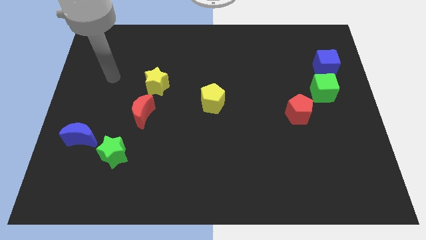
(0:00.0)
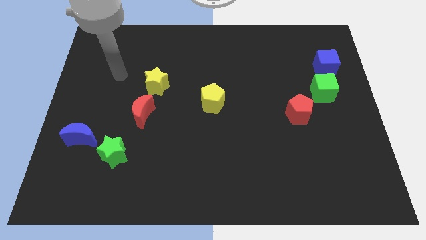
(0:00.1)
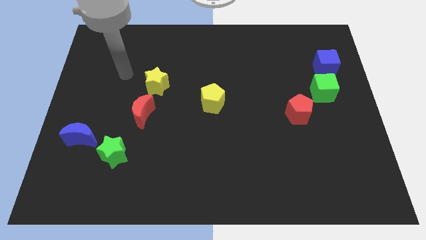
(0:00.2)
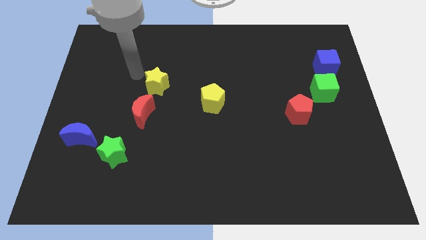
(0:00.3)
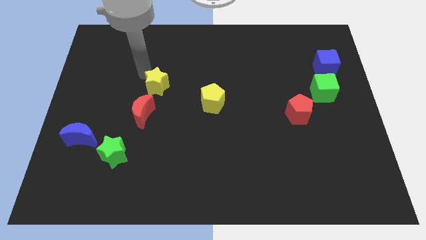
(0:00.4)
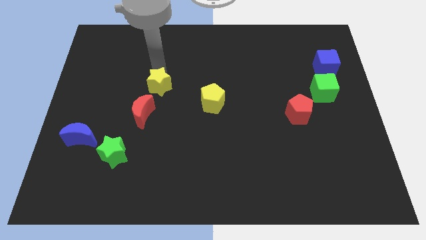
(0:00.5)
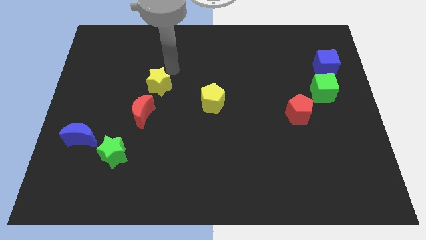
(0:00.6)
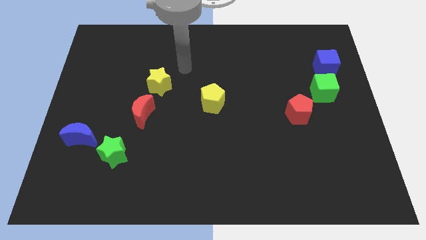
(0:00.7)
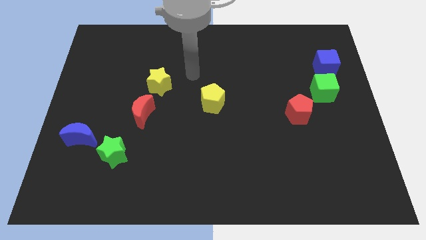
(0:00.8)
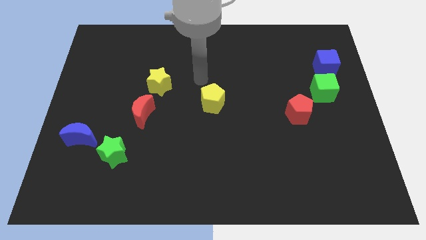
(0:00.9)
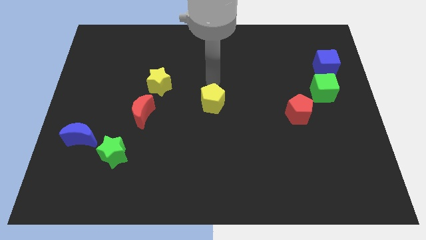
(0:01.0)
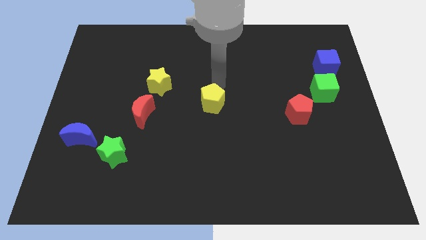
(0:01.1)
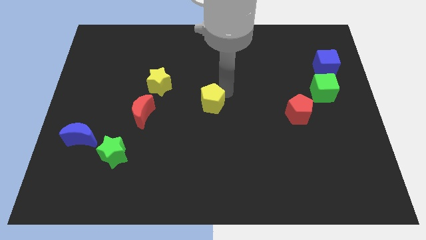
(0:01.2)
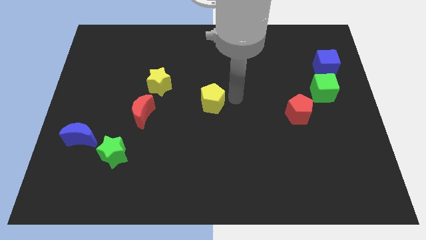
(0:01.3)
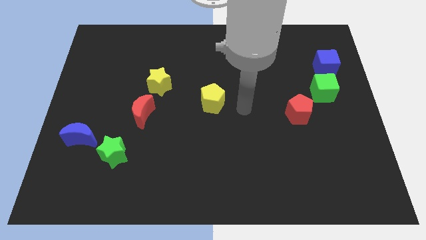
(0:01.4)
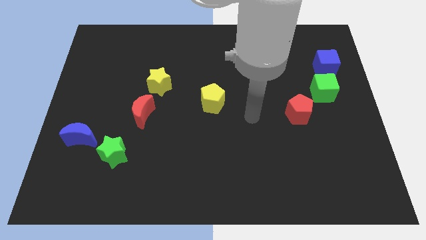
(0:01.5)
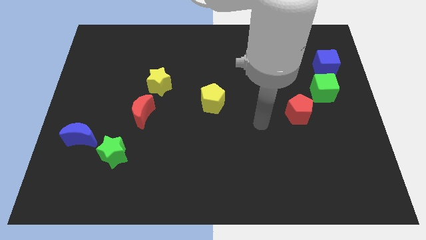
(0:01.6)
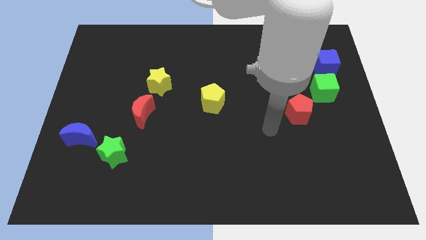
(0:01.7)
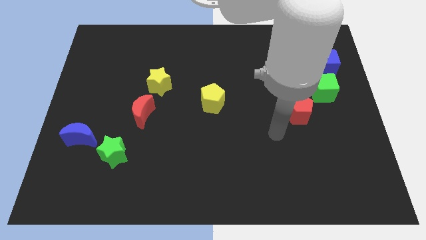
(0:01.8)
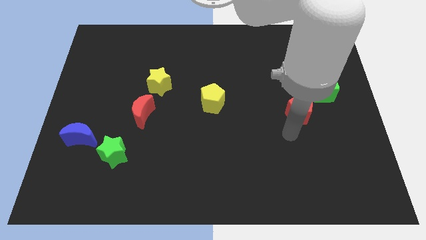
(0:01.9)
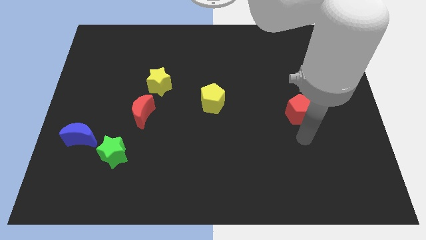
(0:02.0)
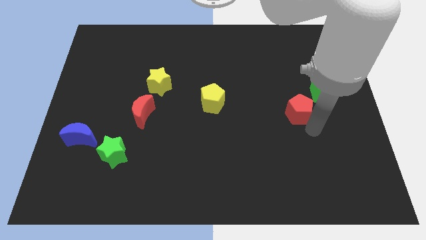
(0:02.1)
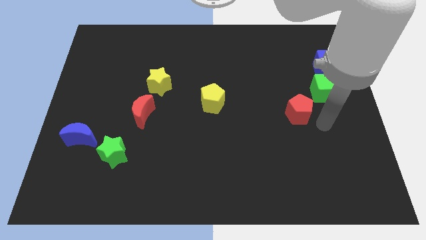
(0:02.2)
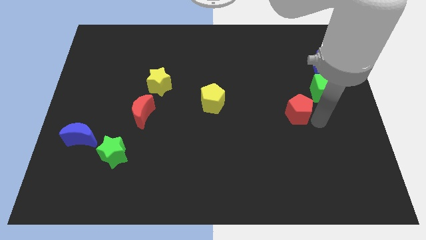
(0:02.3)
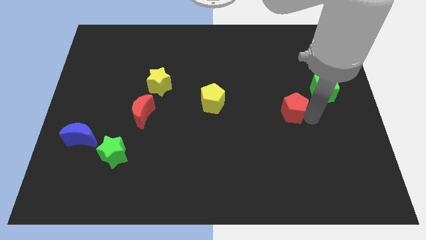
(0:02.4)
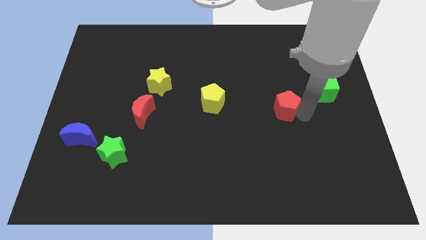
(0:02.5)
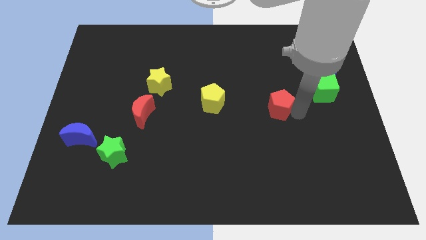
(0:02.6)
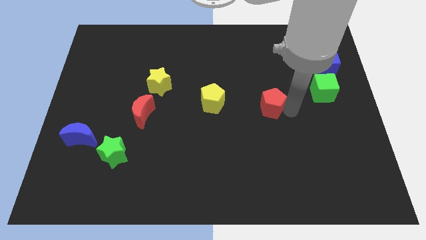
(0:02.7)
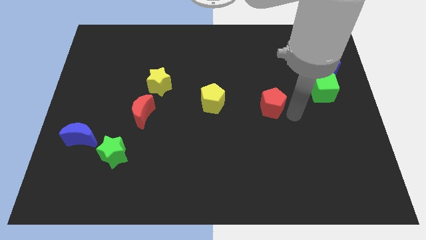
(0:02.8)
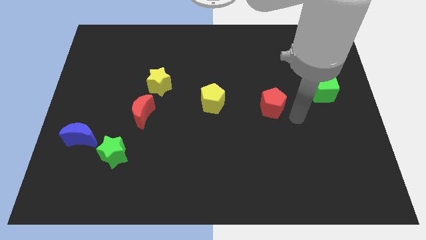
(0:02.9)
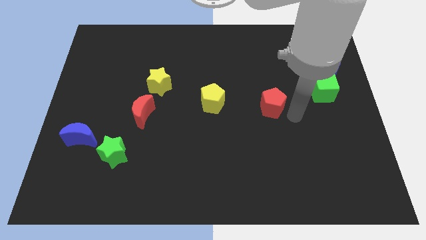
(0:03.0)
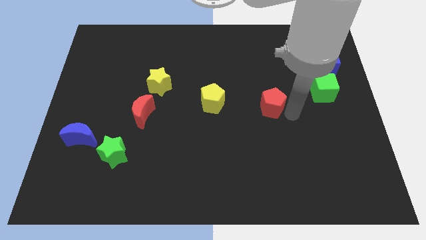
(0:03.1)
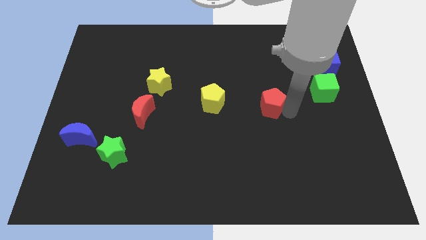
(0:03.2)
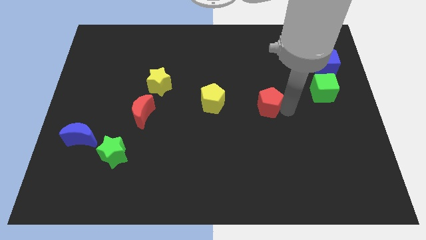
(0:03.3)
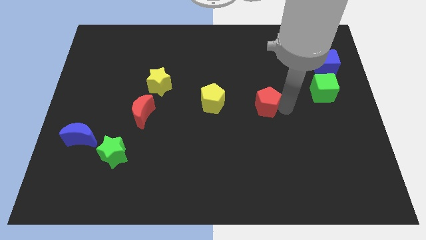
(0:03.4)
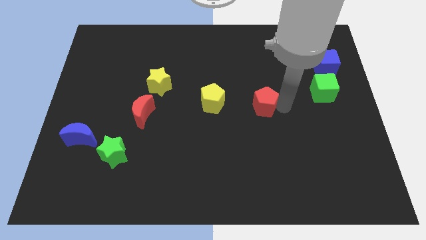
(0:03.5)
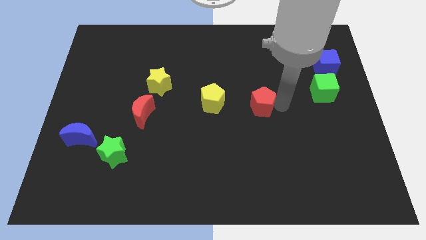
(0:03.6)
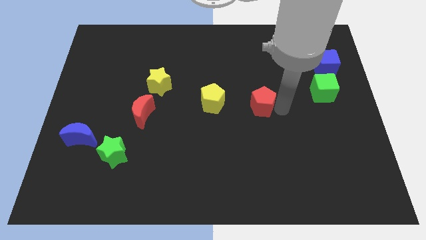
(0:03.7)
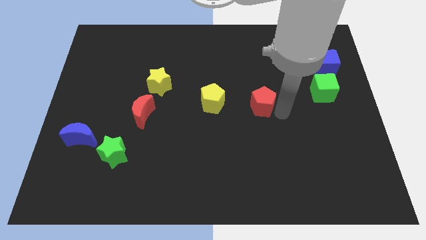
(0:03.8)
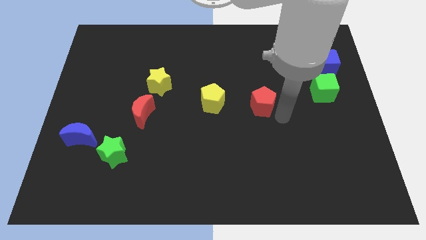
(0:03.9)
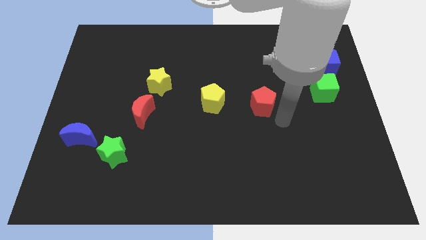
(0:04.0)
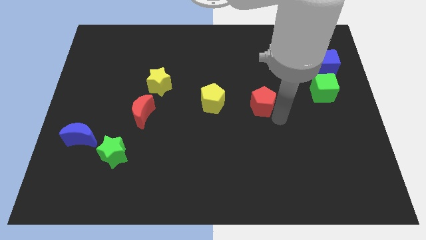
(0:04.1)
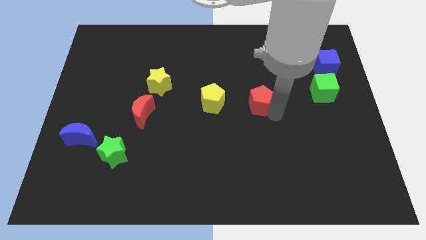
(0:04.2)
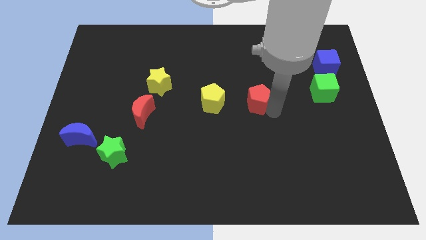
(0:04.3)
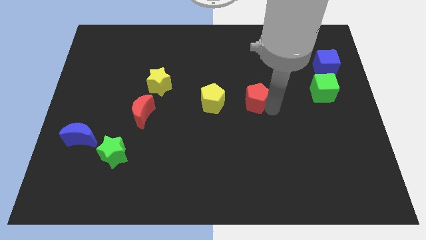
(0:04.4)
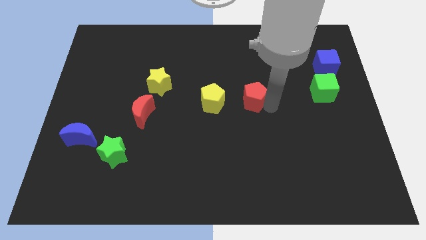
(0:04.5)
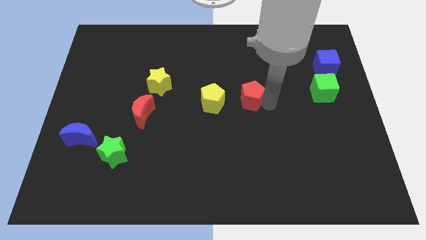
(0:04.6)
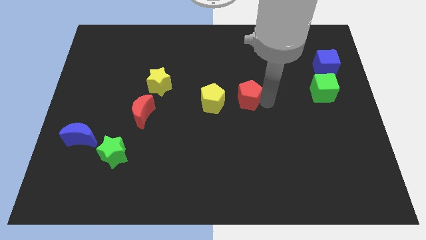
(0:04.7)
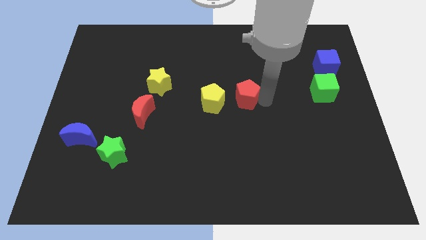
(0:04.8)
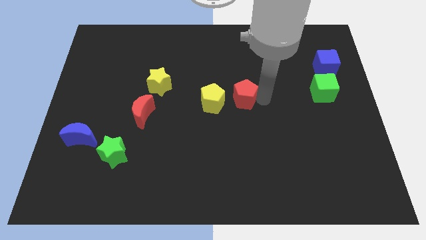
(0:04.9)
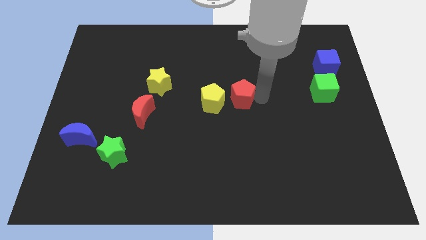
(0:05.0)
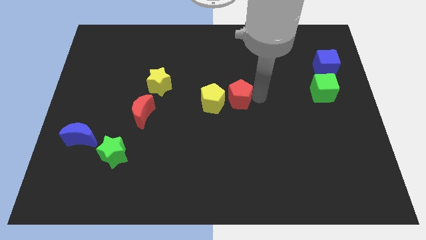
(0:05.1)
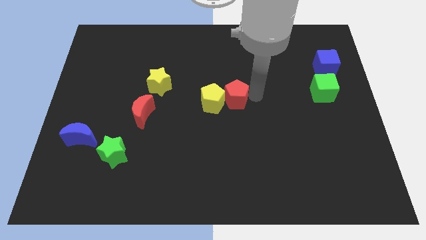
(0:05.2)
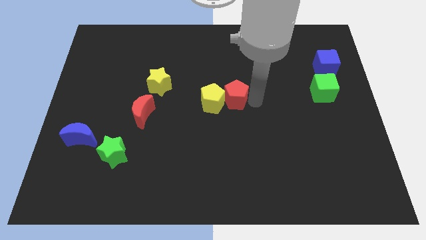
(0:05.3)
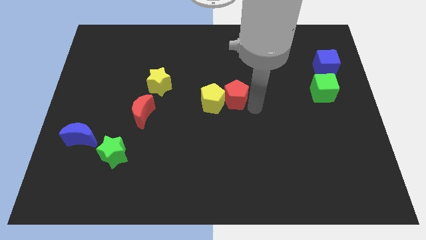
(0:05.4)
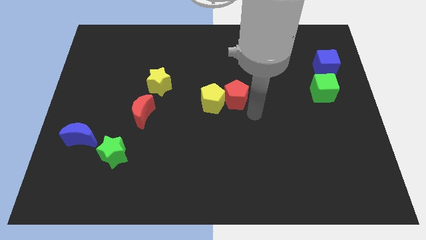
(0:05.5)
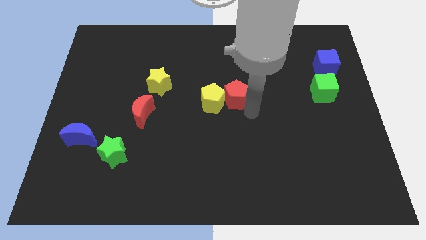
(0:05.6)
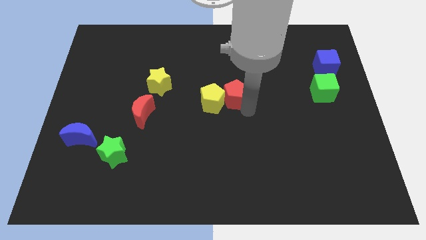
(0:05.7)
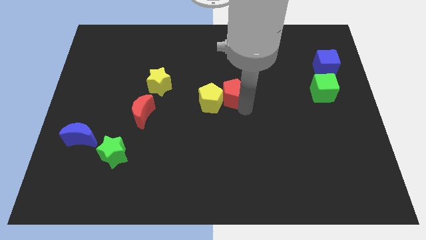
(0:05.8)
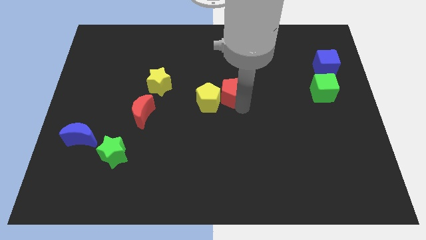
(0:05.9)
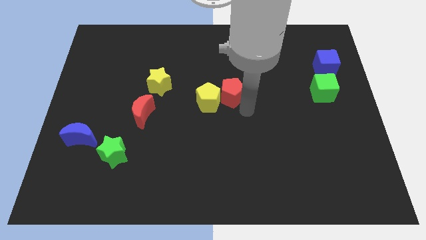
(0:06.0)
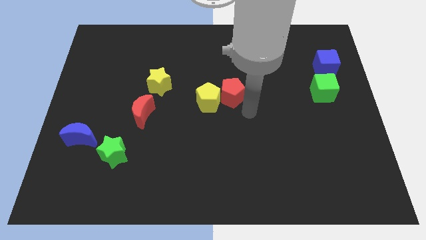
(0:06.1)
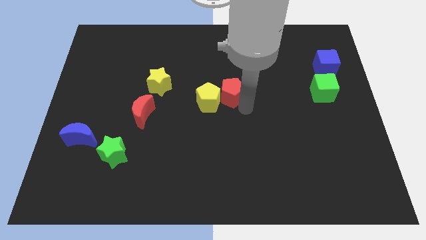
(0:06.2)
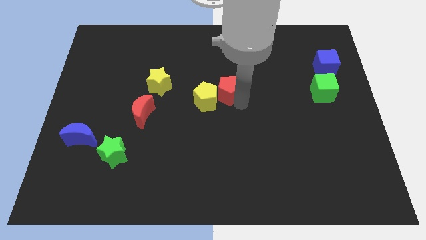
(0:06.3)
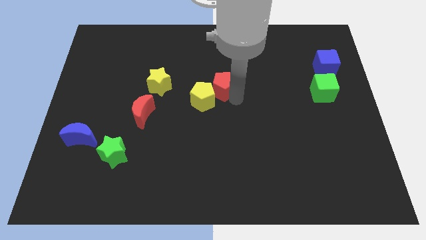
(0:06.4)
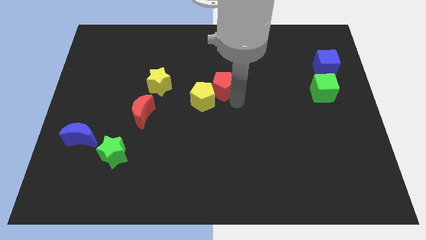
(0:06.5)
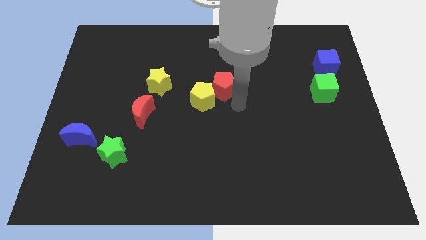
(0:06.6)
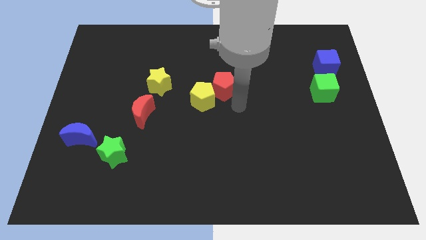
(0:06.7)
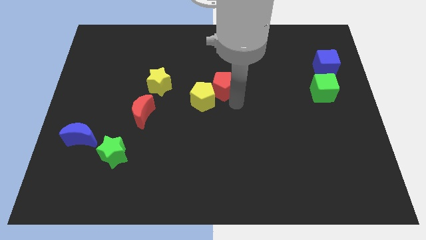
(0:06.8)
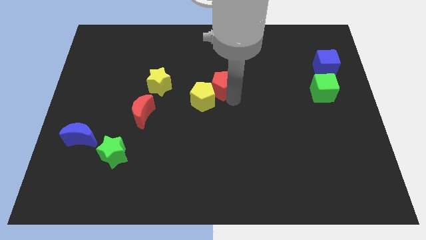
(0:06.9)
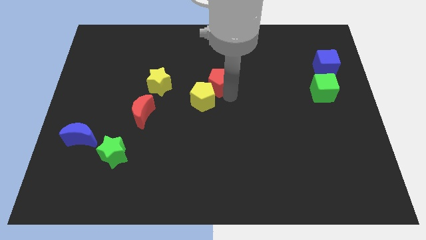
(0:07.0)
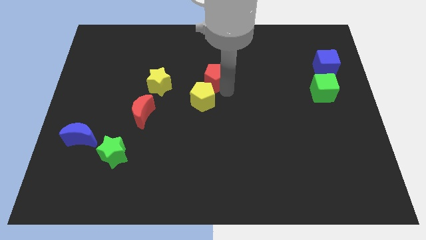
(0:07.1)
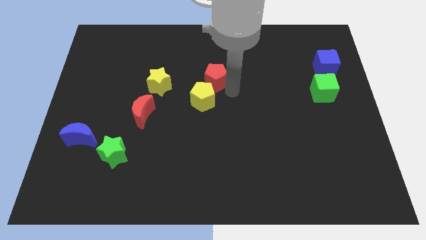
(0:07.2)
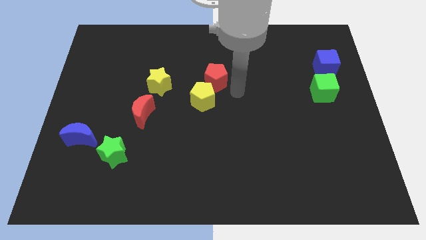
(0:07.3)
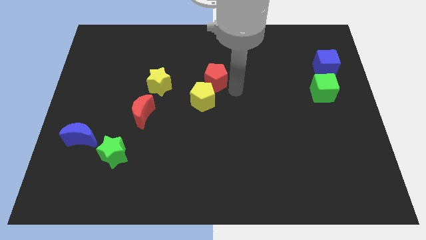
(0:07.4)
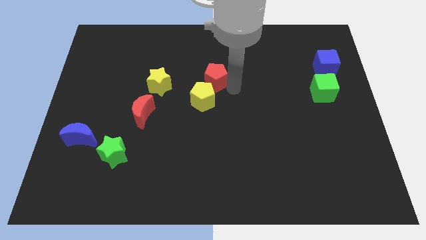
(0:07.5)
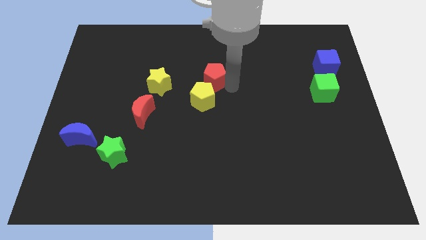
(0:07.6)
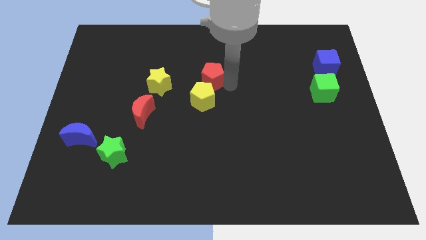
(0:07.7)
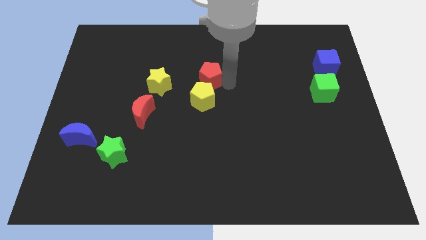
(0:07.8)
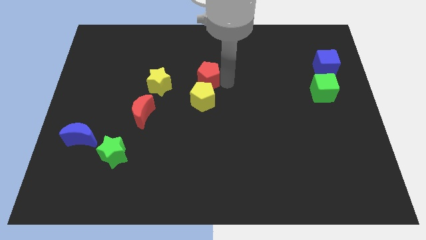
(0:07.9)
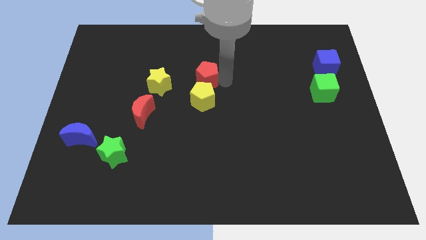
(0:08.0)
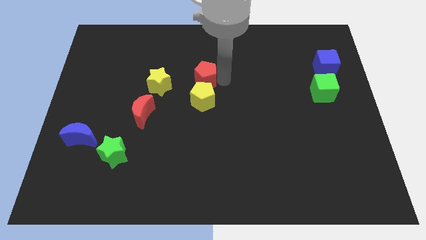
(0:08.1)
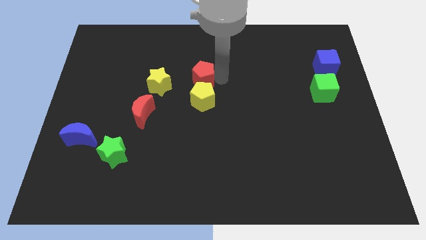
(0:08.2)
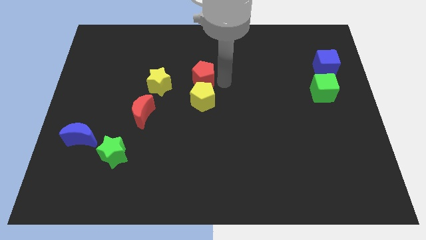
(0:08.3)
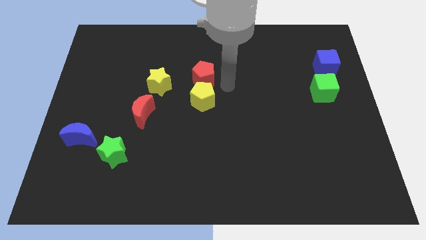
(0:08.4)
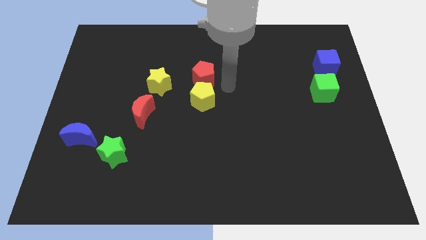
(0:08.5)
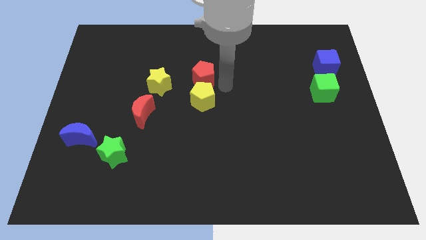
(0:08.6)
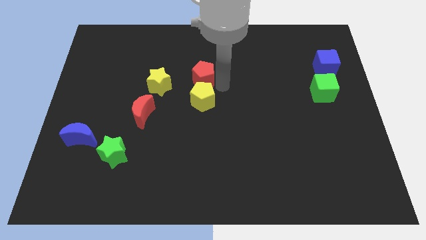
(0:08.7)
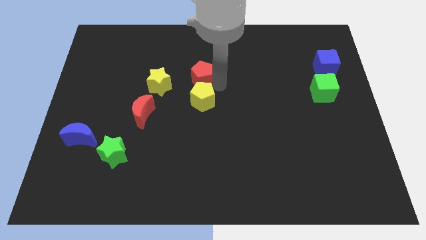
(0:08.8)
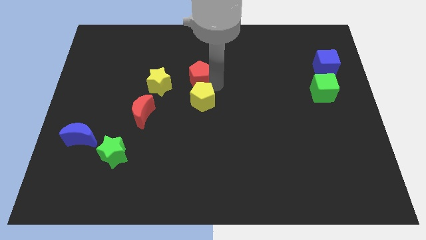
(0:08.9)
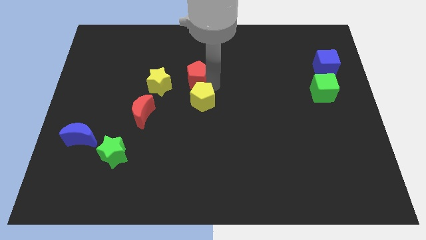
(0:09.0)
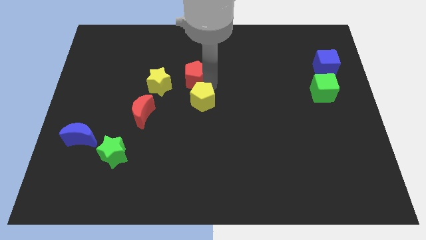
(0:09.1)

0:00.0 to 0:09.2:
push the red pentagon diagonally up and to the right of the yellow star
